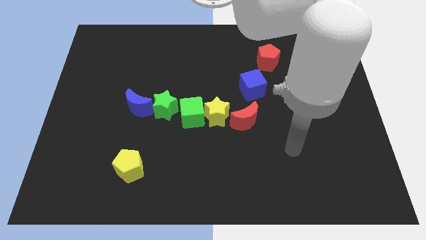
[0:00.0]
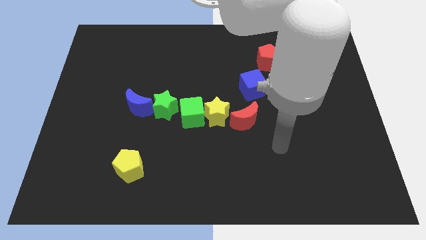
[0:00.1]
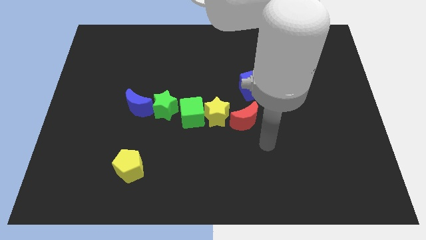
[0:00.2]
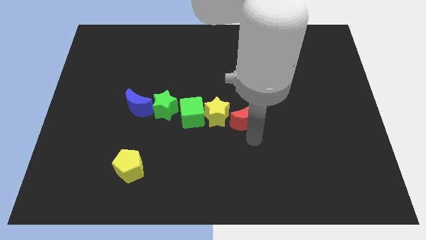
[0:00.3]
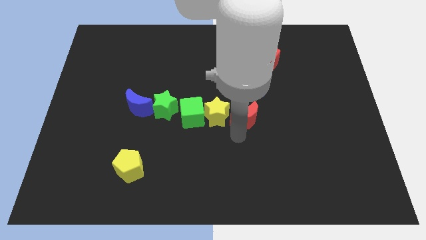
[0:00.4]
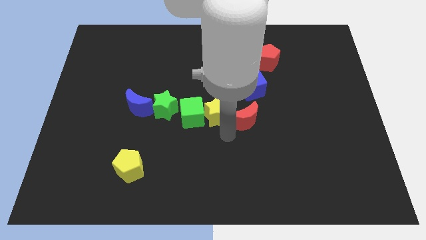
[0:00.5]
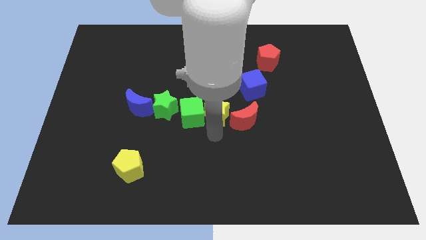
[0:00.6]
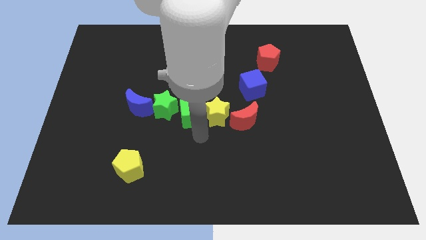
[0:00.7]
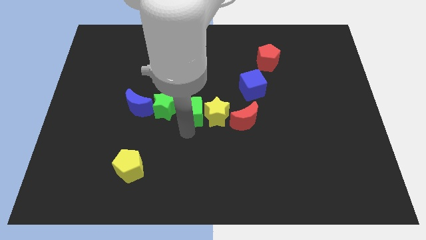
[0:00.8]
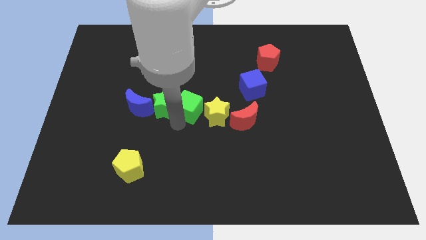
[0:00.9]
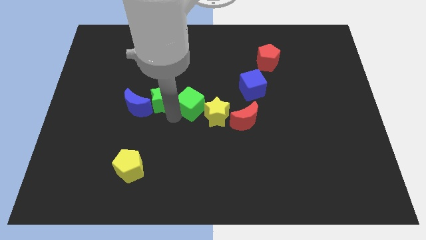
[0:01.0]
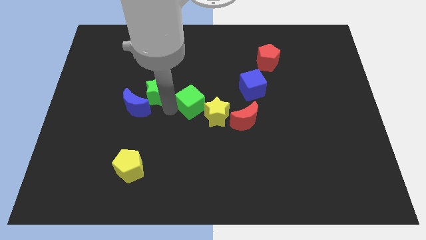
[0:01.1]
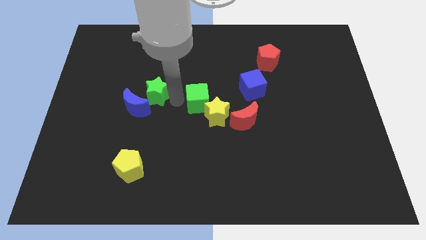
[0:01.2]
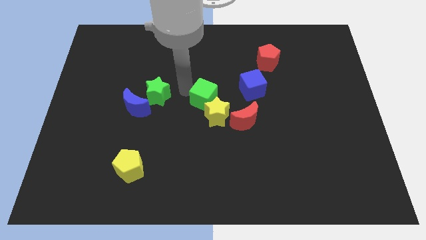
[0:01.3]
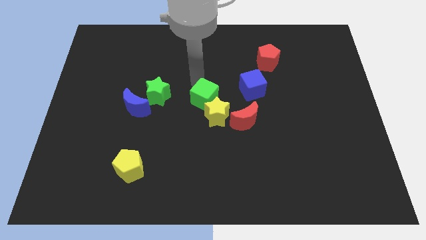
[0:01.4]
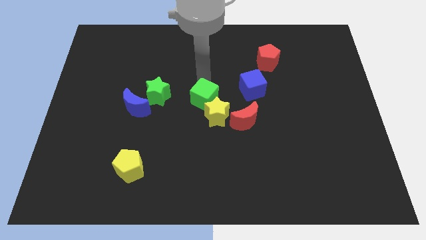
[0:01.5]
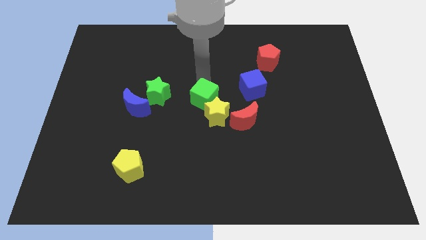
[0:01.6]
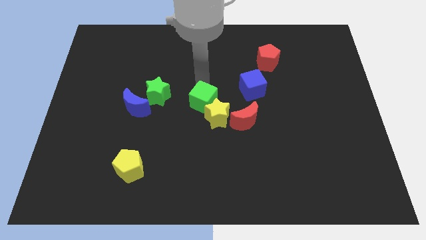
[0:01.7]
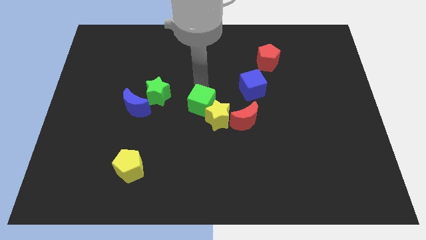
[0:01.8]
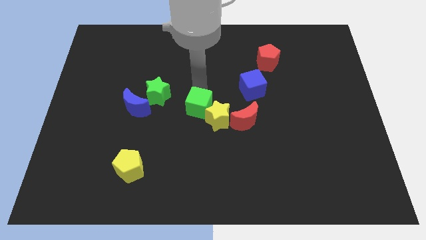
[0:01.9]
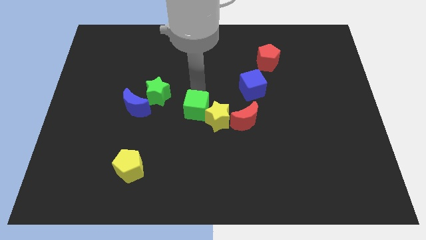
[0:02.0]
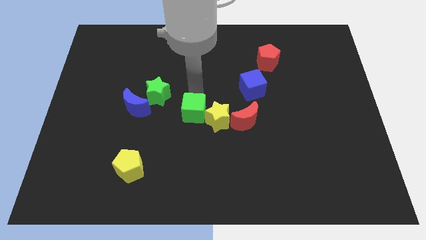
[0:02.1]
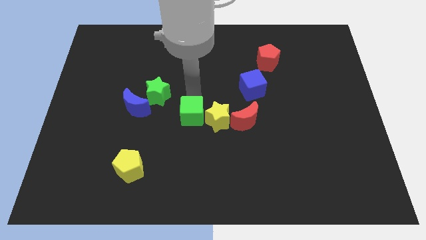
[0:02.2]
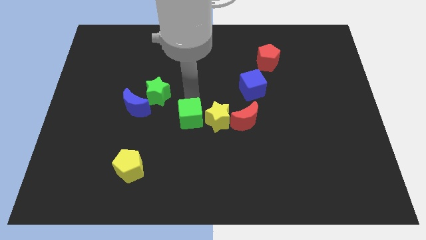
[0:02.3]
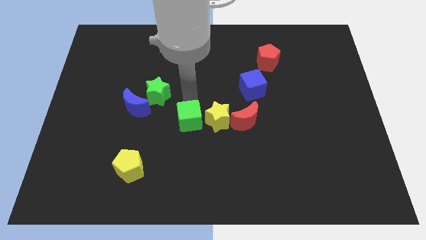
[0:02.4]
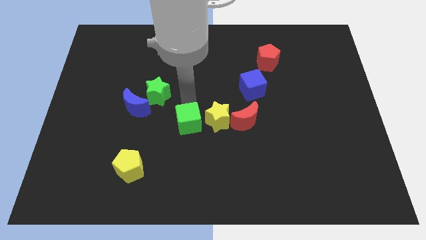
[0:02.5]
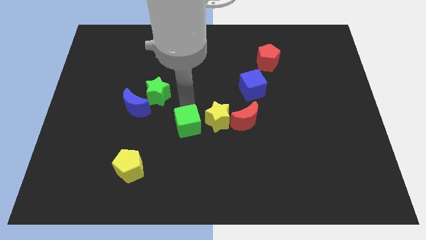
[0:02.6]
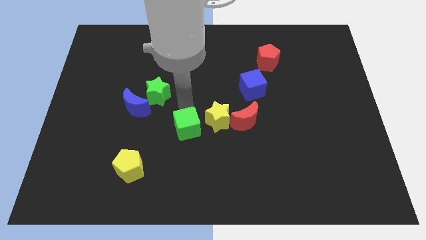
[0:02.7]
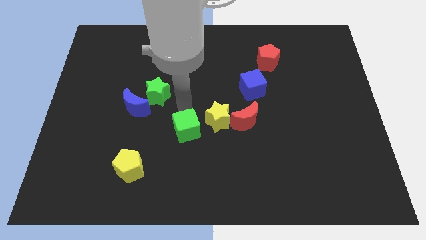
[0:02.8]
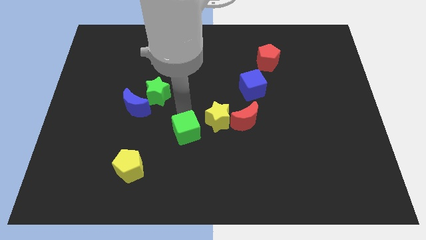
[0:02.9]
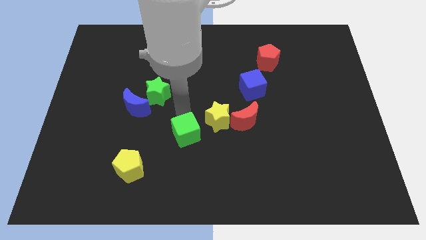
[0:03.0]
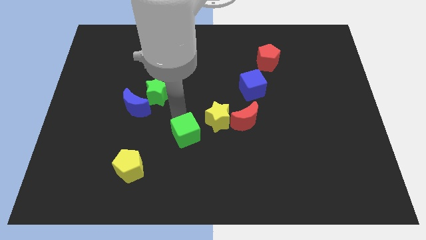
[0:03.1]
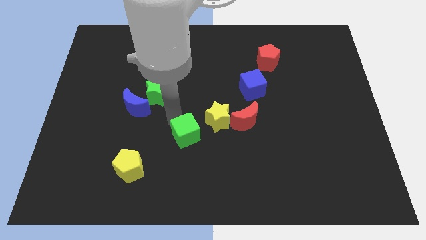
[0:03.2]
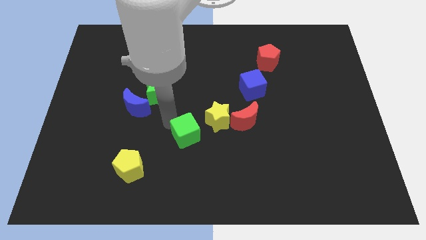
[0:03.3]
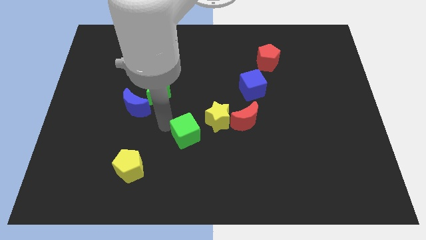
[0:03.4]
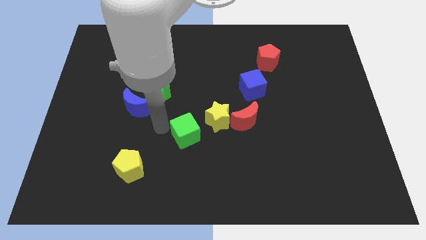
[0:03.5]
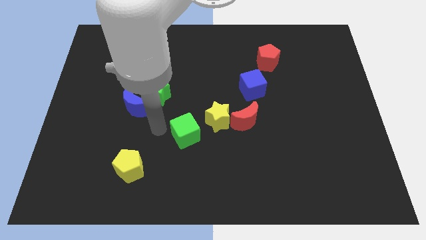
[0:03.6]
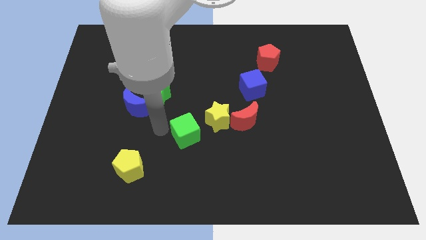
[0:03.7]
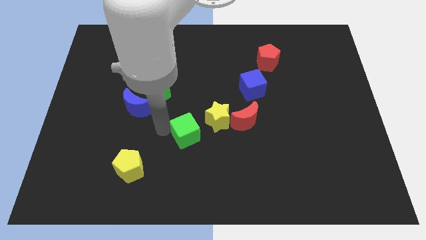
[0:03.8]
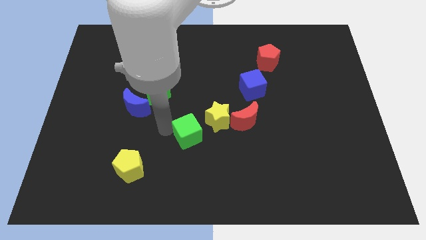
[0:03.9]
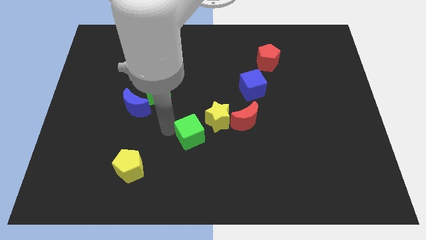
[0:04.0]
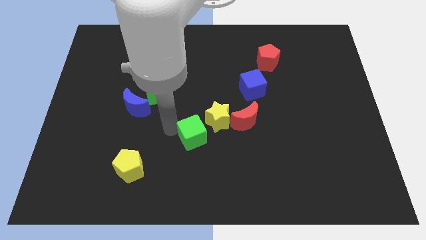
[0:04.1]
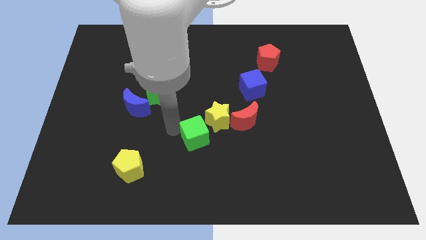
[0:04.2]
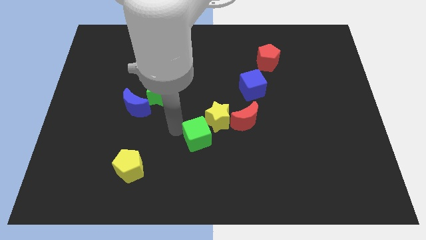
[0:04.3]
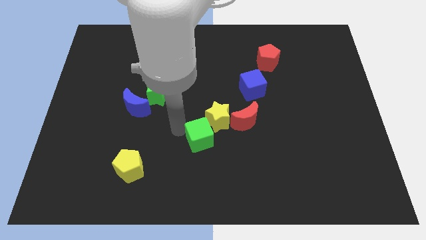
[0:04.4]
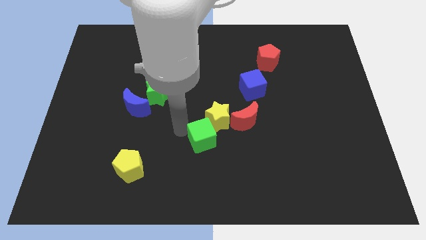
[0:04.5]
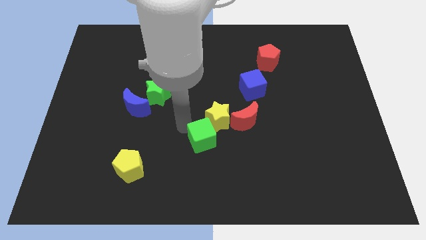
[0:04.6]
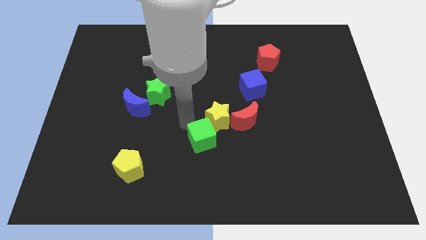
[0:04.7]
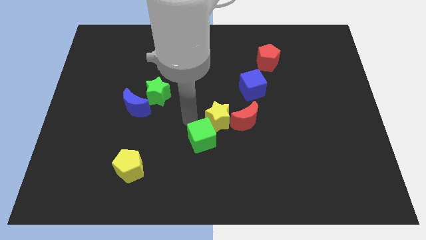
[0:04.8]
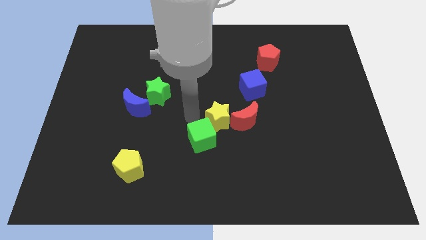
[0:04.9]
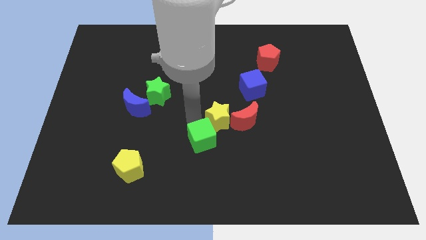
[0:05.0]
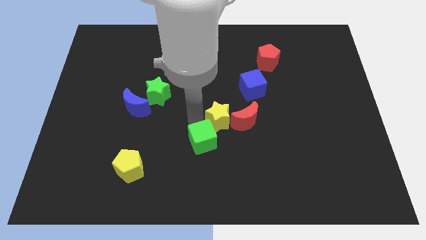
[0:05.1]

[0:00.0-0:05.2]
pull the green cube apart from the yellow star and green star

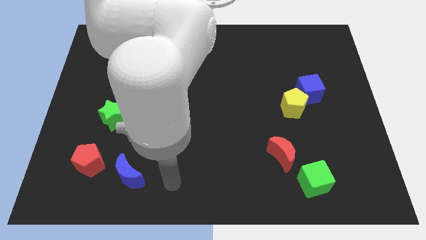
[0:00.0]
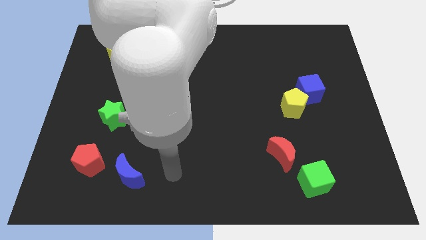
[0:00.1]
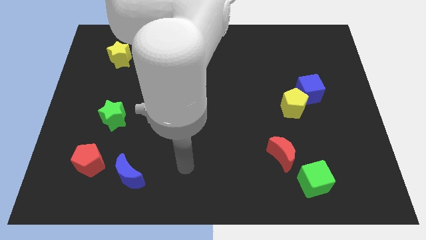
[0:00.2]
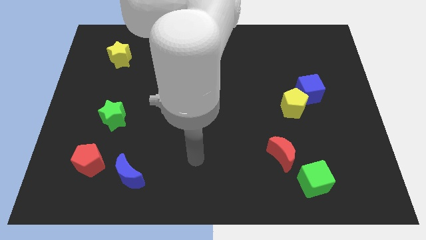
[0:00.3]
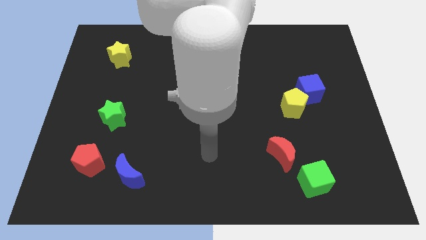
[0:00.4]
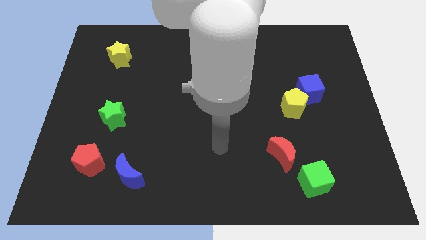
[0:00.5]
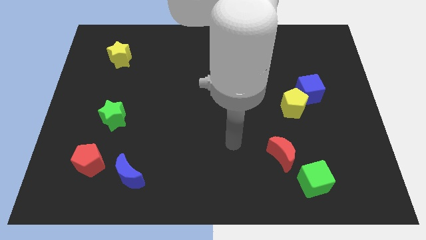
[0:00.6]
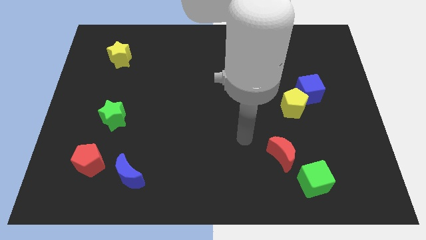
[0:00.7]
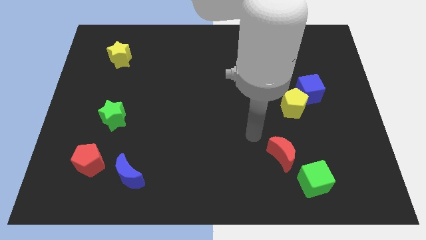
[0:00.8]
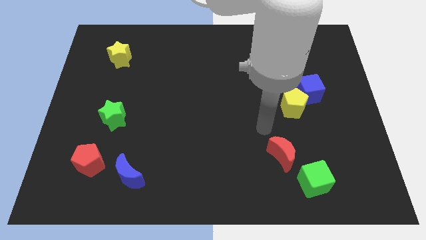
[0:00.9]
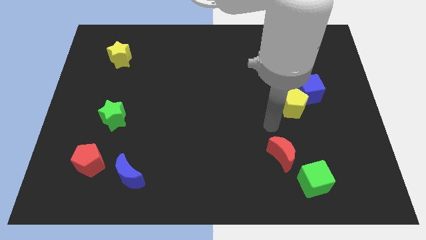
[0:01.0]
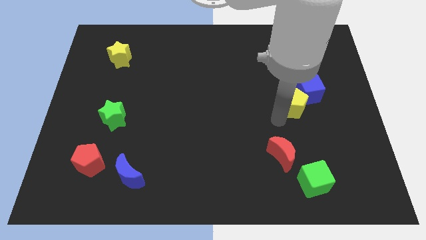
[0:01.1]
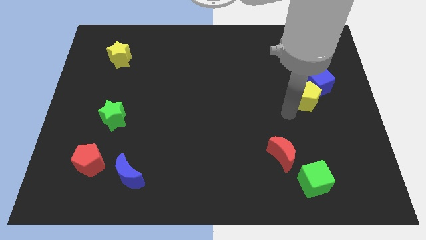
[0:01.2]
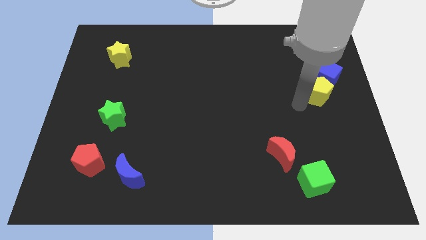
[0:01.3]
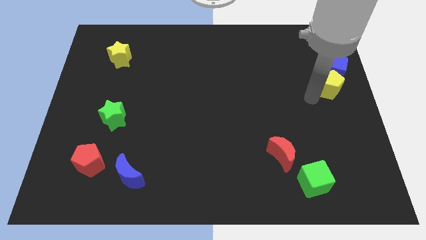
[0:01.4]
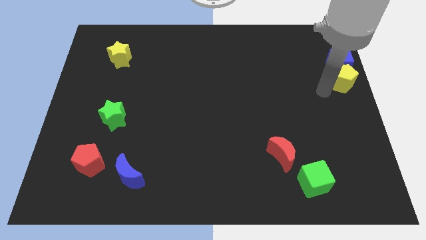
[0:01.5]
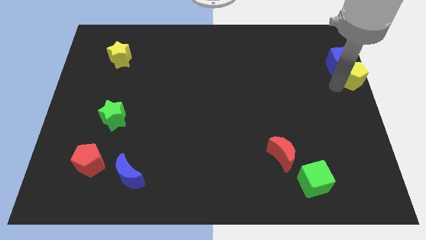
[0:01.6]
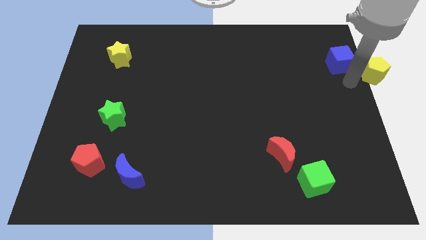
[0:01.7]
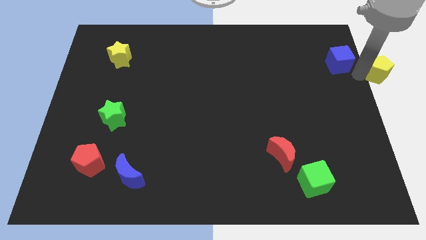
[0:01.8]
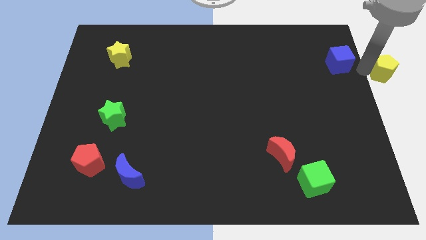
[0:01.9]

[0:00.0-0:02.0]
separate the blue cube from the yellow pentagon

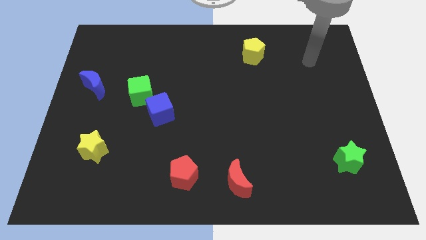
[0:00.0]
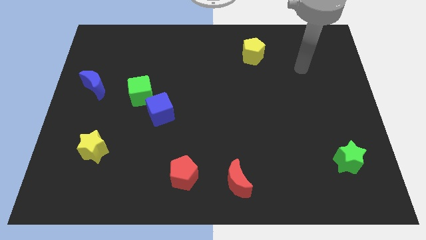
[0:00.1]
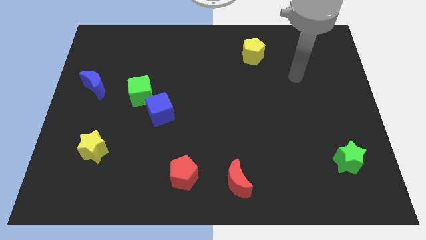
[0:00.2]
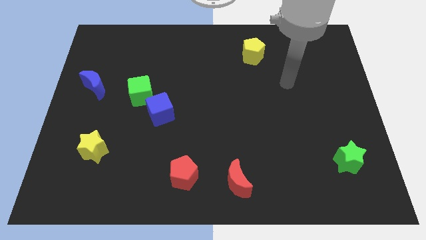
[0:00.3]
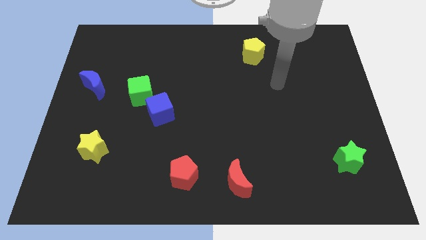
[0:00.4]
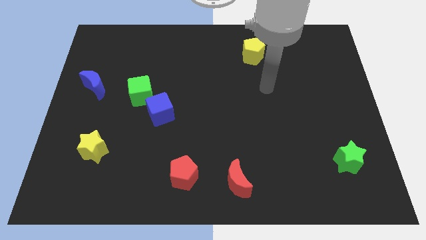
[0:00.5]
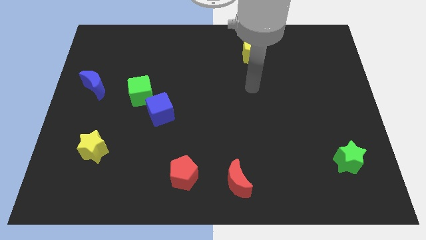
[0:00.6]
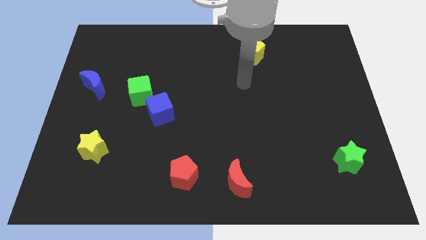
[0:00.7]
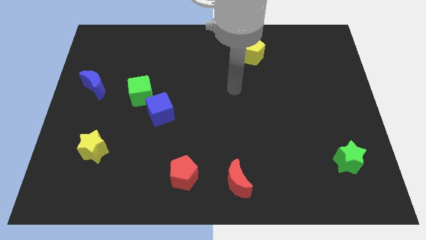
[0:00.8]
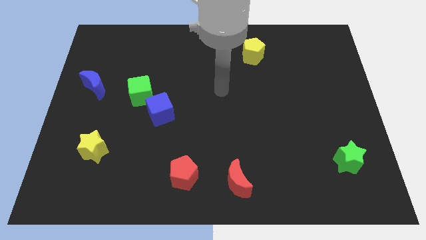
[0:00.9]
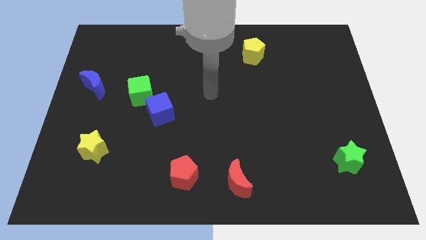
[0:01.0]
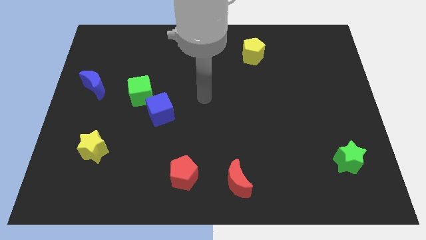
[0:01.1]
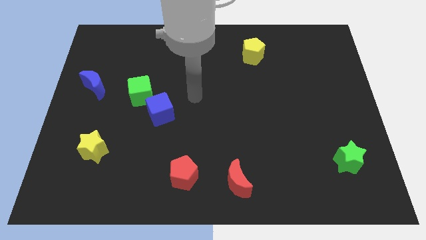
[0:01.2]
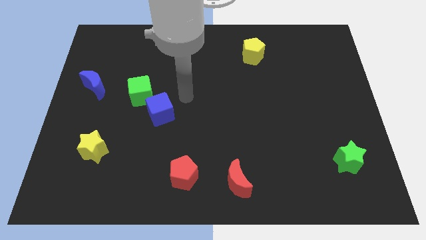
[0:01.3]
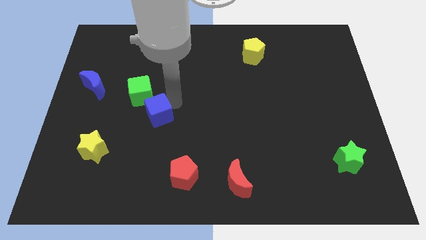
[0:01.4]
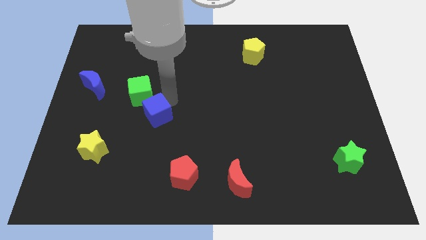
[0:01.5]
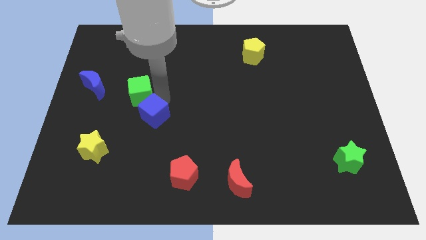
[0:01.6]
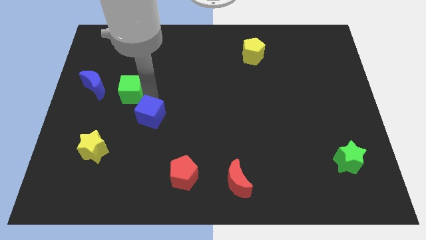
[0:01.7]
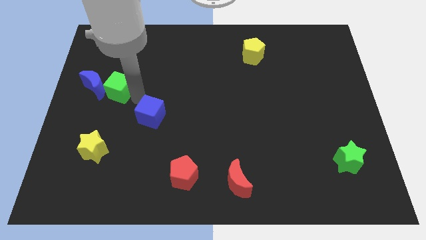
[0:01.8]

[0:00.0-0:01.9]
move the blue cube away from the green cube

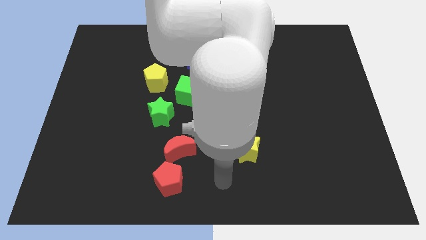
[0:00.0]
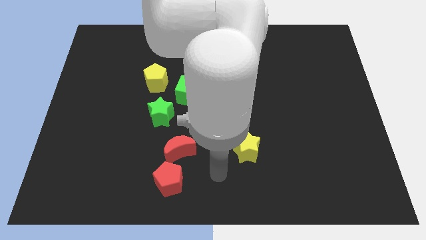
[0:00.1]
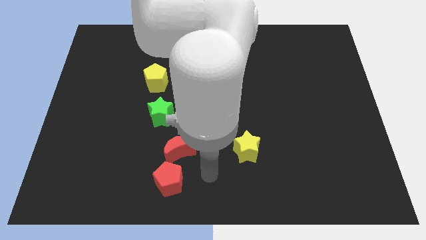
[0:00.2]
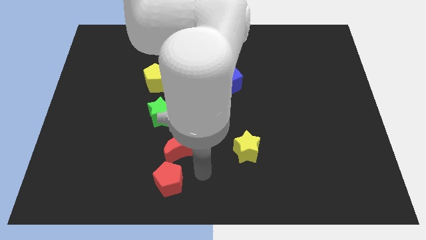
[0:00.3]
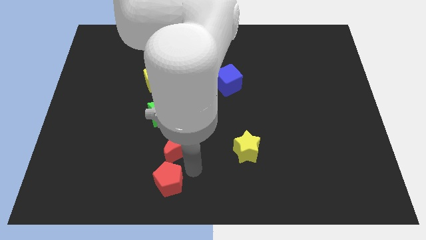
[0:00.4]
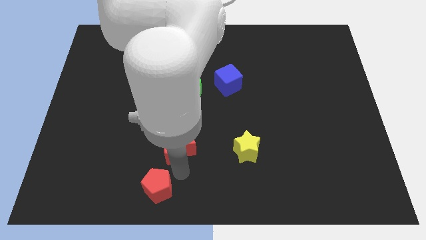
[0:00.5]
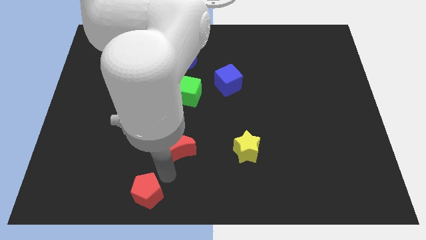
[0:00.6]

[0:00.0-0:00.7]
separate the red moon from the red pentagon
